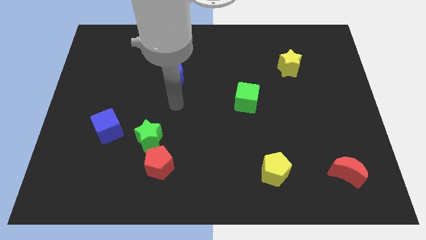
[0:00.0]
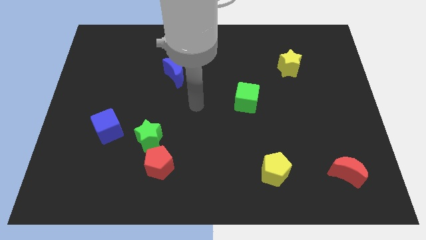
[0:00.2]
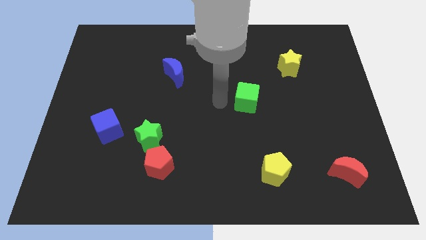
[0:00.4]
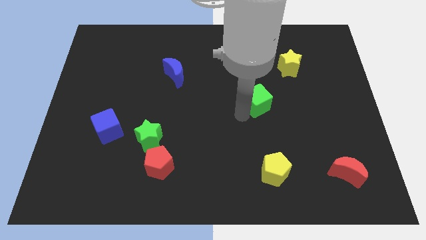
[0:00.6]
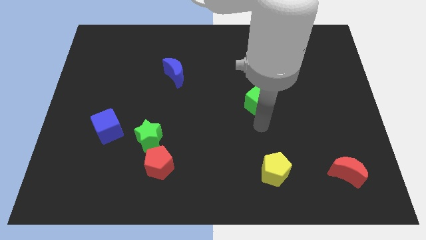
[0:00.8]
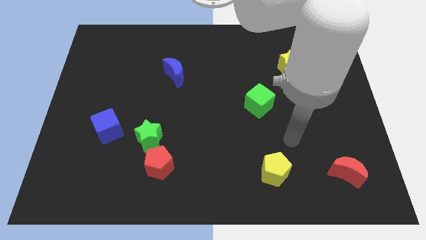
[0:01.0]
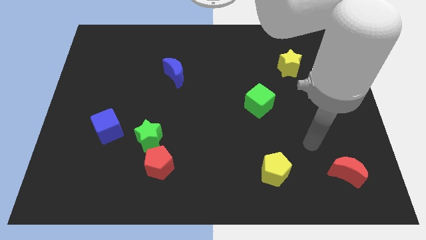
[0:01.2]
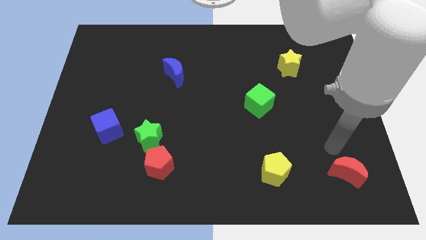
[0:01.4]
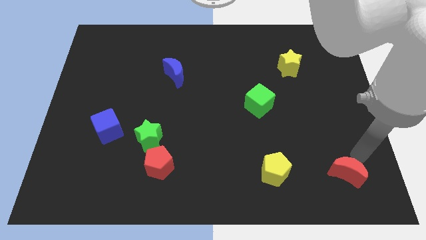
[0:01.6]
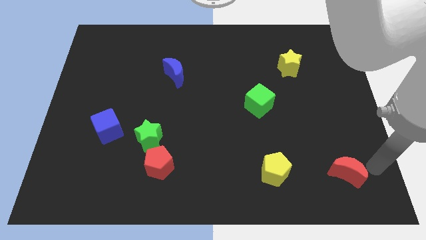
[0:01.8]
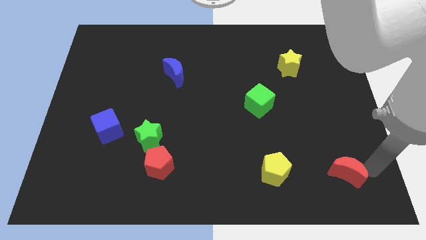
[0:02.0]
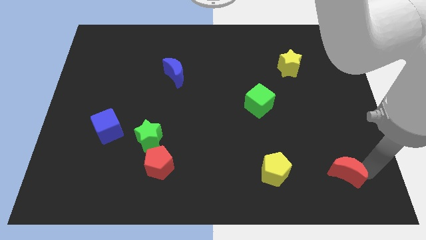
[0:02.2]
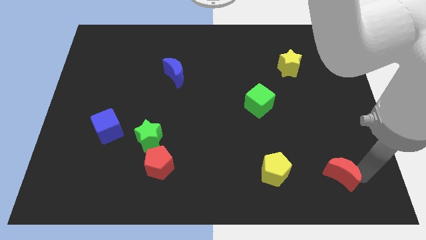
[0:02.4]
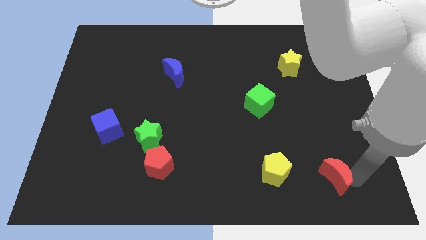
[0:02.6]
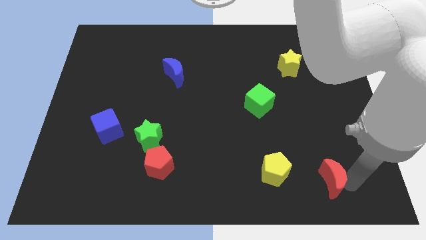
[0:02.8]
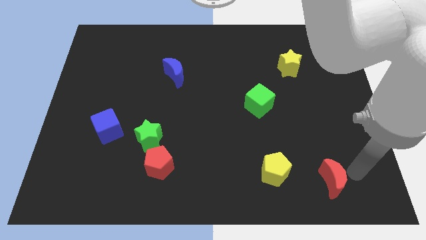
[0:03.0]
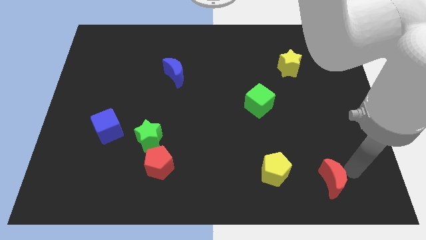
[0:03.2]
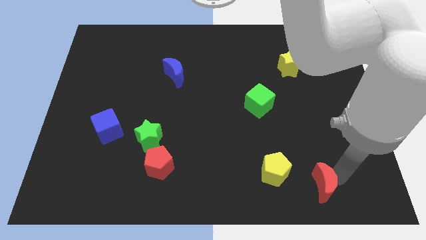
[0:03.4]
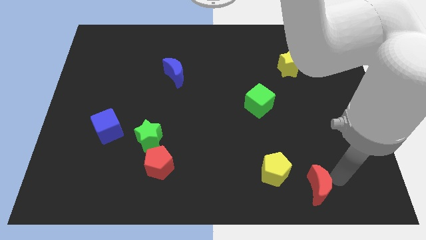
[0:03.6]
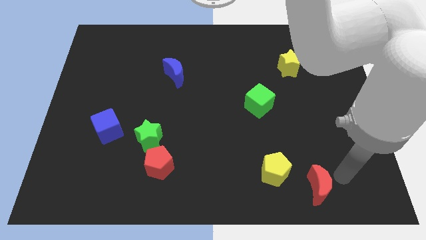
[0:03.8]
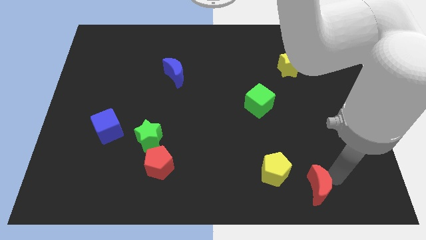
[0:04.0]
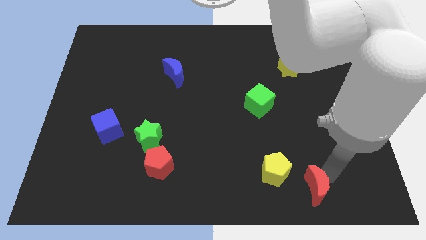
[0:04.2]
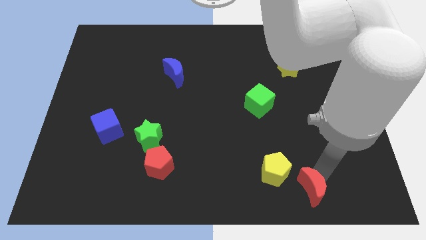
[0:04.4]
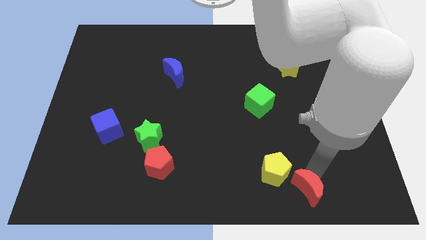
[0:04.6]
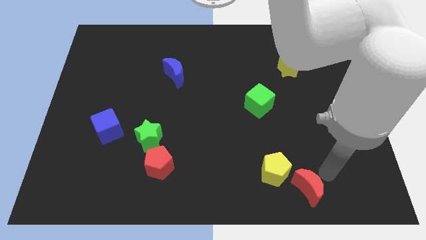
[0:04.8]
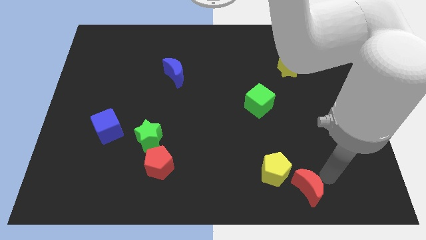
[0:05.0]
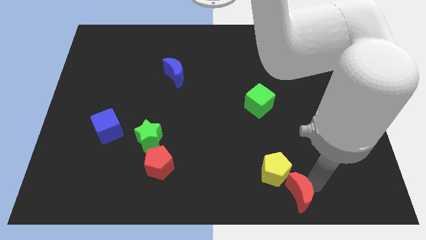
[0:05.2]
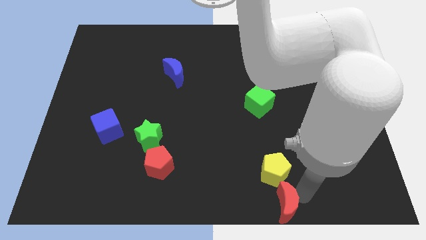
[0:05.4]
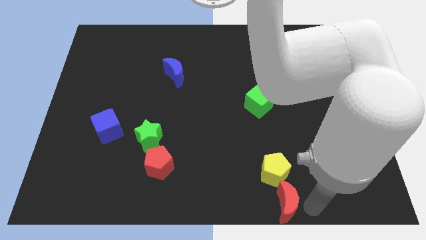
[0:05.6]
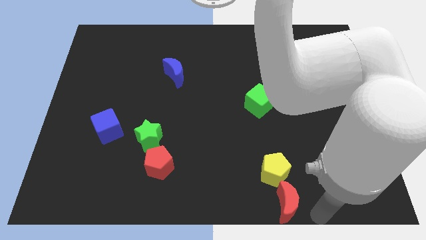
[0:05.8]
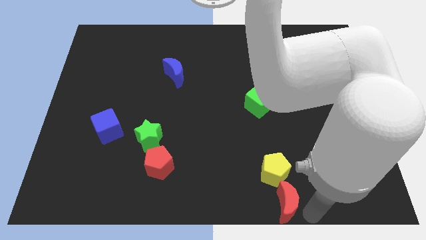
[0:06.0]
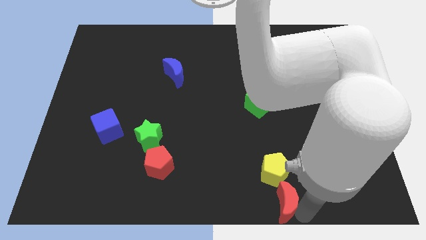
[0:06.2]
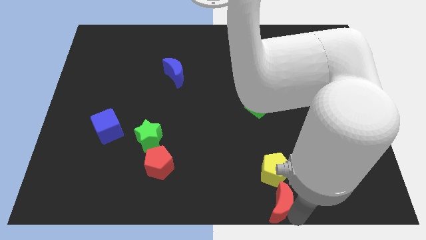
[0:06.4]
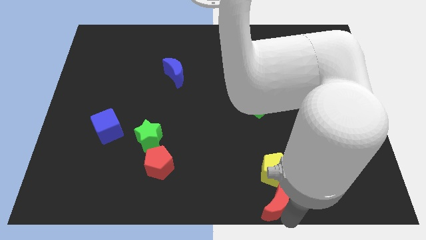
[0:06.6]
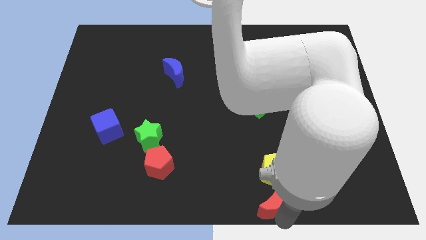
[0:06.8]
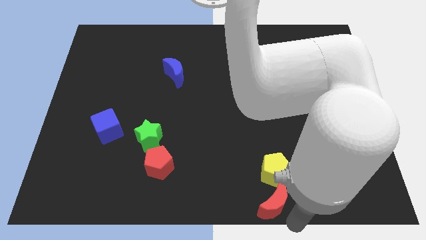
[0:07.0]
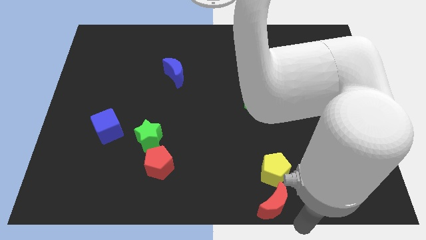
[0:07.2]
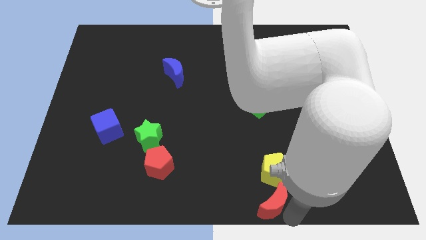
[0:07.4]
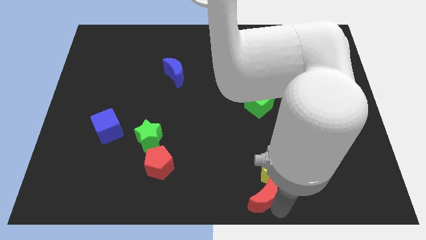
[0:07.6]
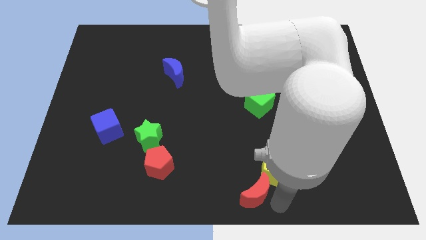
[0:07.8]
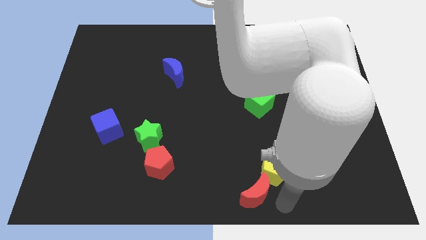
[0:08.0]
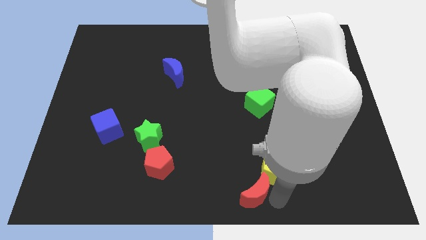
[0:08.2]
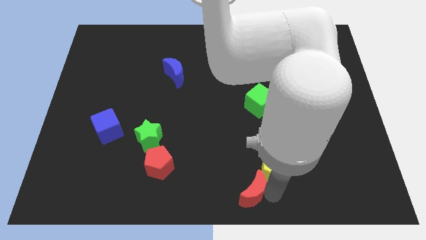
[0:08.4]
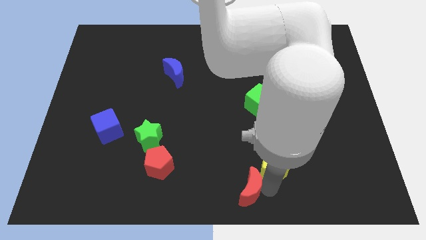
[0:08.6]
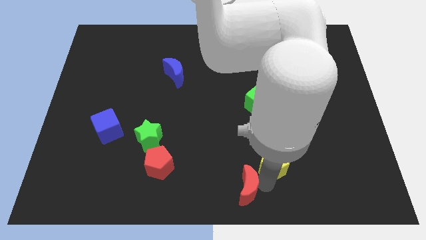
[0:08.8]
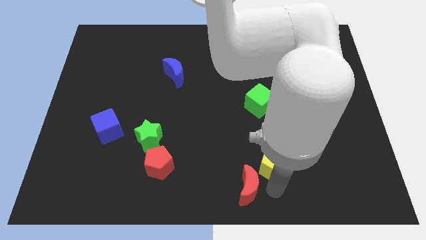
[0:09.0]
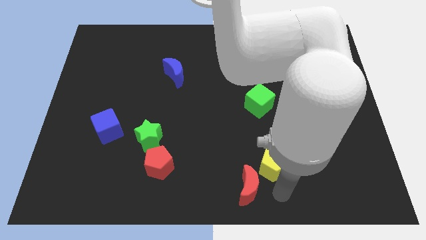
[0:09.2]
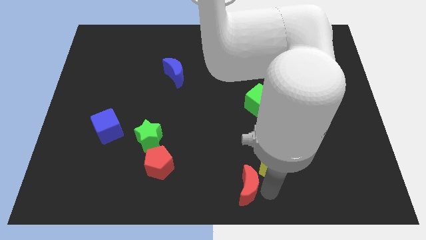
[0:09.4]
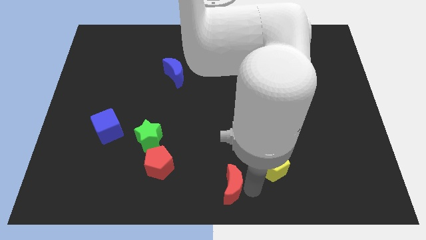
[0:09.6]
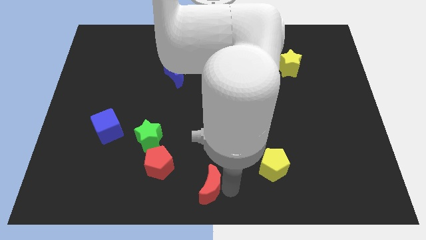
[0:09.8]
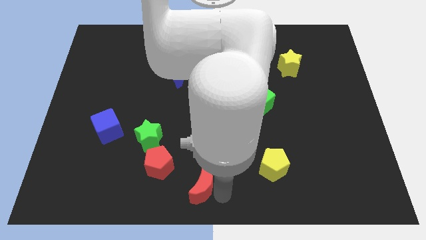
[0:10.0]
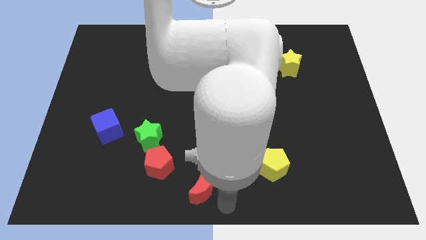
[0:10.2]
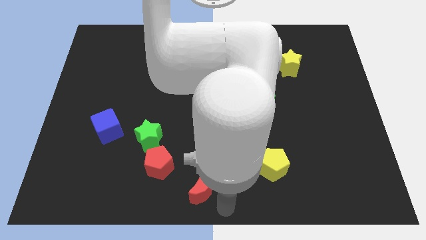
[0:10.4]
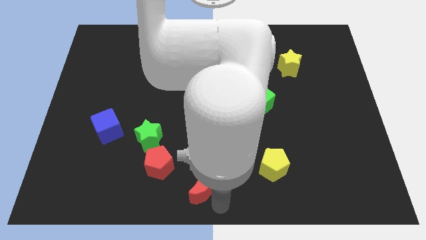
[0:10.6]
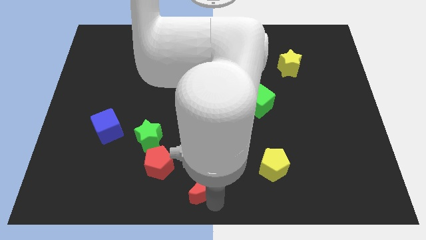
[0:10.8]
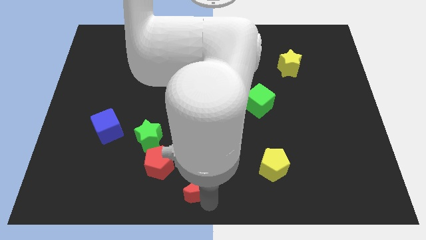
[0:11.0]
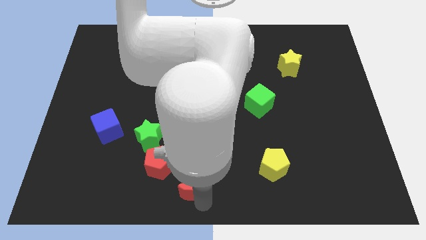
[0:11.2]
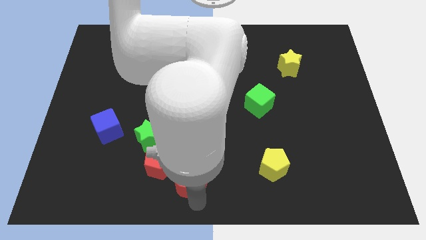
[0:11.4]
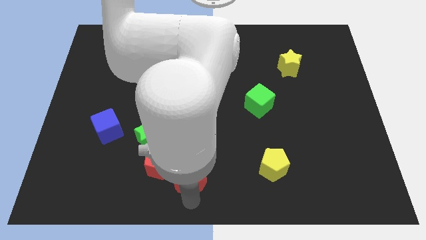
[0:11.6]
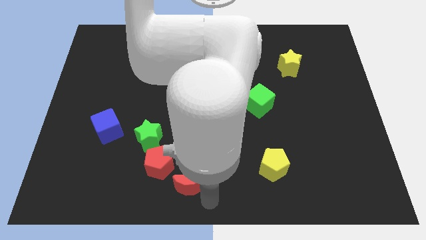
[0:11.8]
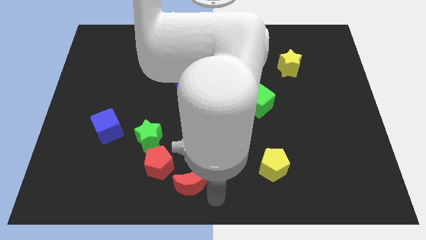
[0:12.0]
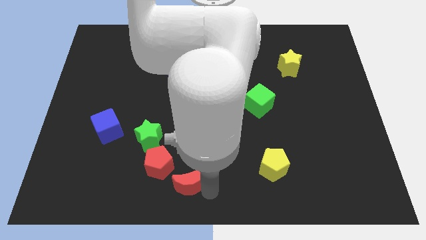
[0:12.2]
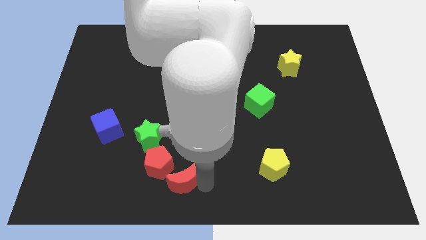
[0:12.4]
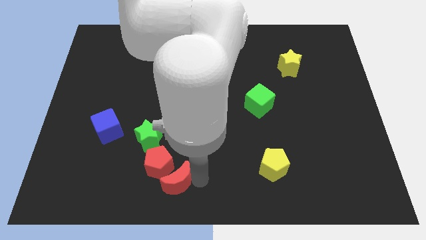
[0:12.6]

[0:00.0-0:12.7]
put the red moon close to the red pentagon

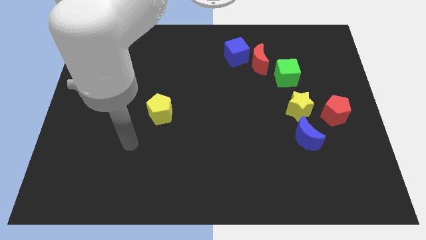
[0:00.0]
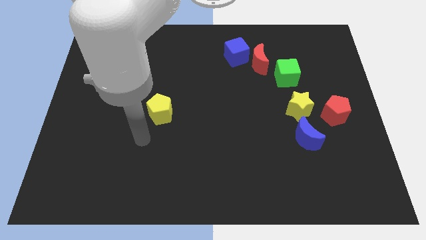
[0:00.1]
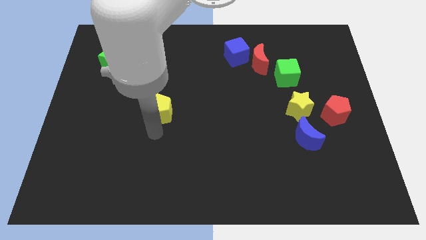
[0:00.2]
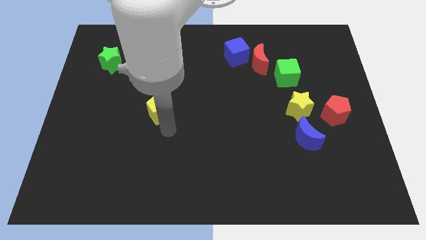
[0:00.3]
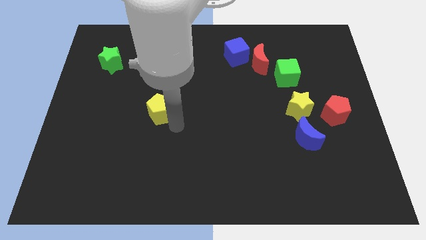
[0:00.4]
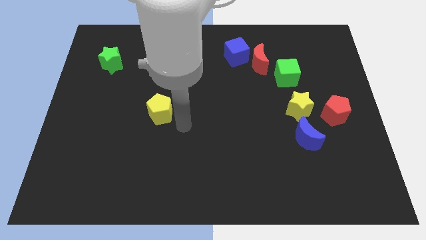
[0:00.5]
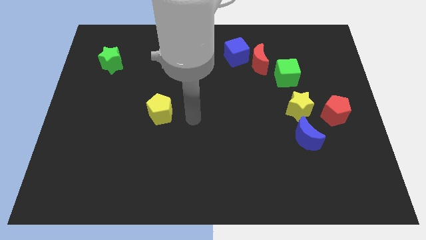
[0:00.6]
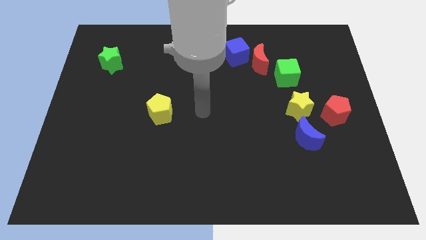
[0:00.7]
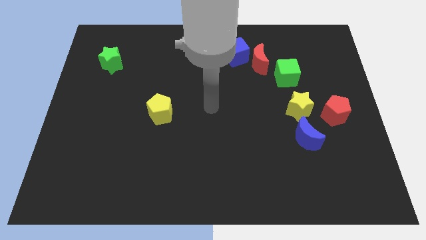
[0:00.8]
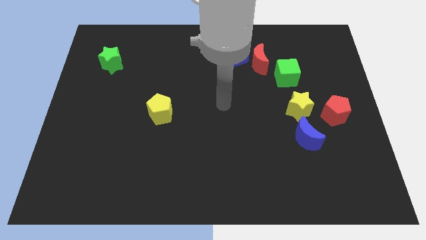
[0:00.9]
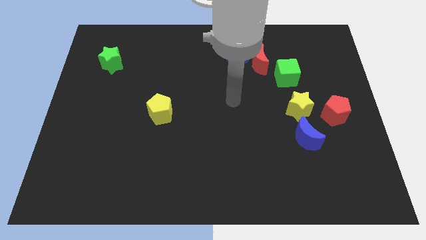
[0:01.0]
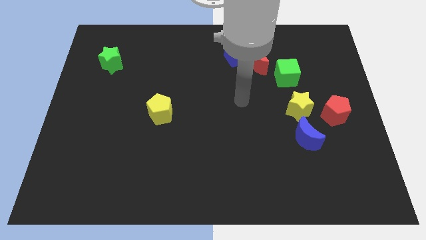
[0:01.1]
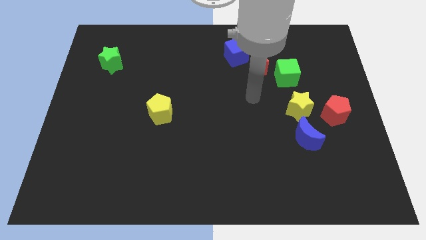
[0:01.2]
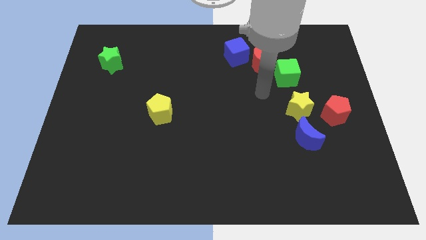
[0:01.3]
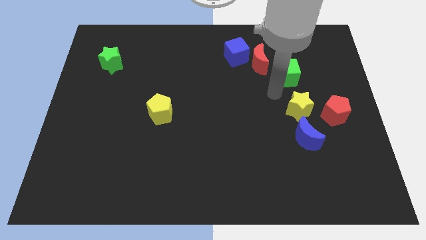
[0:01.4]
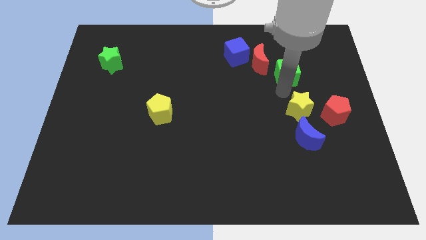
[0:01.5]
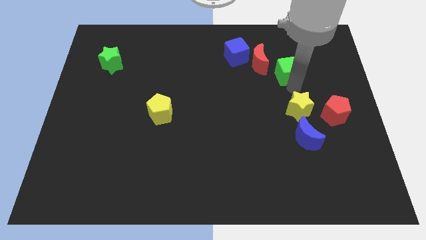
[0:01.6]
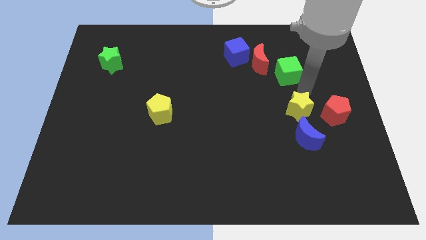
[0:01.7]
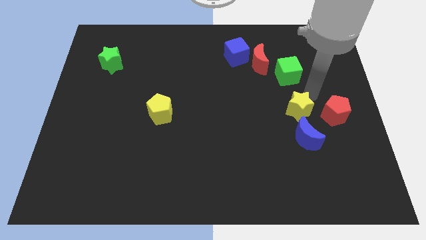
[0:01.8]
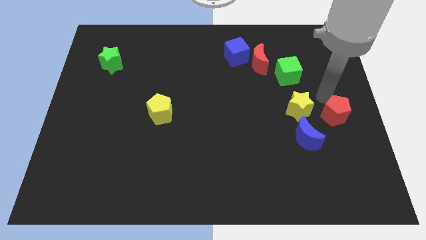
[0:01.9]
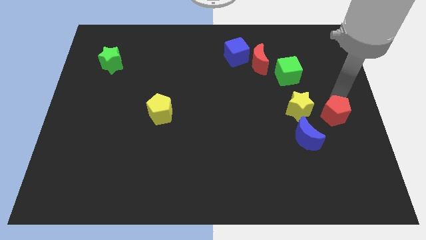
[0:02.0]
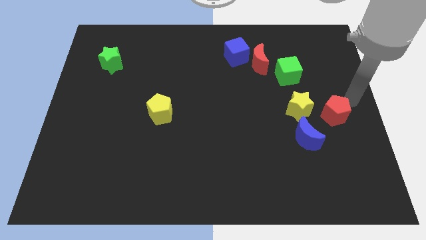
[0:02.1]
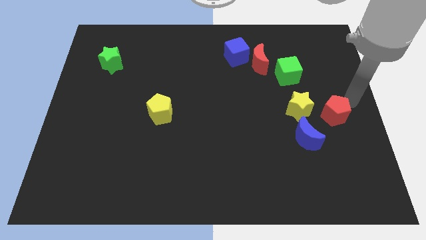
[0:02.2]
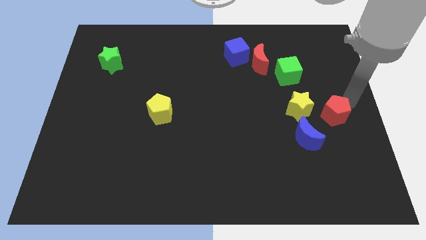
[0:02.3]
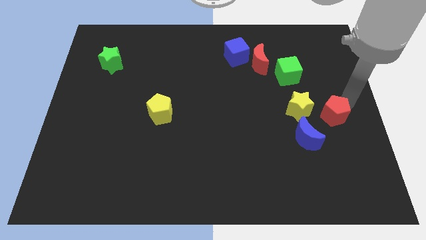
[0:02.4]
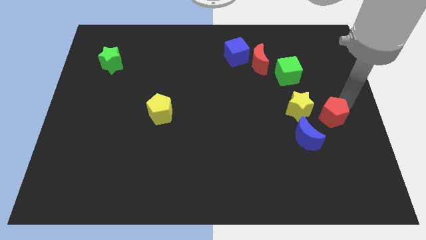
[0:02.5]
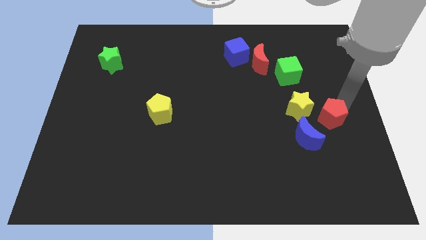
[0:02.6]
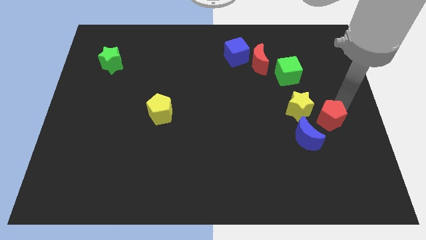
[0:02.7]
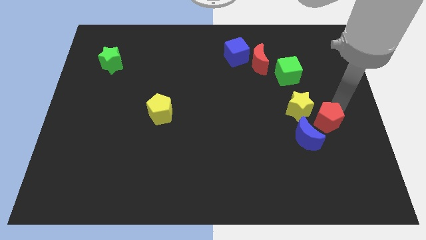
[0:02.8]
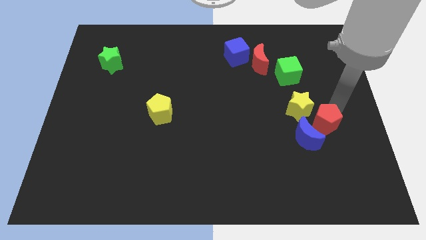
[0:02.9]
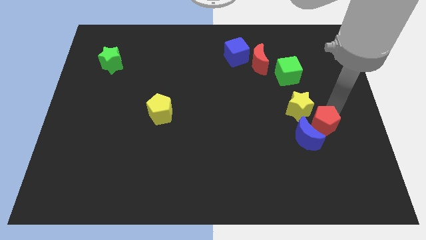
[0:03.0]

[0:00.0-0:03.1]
put the red pentagon next to the blue moon
